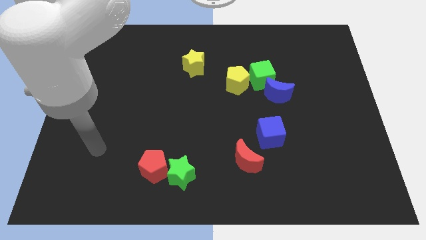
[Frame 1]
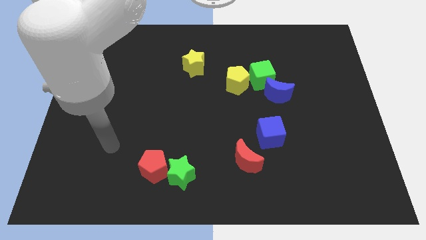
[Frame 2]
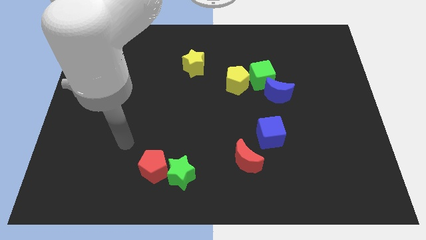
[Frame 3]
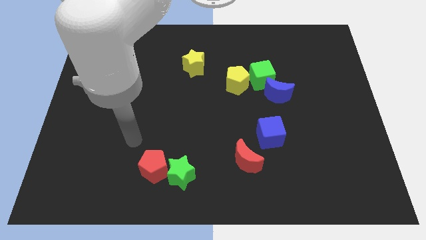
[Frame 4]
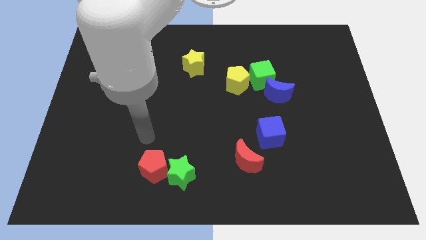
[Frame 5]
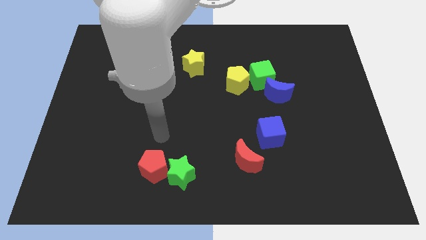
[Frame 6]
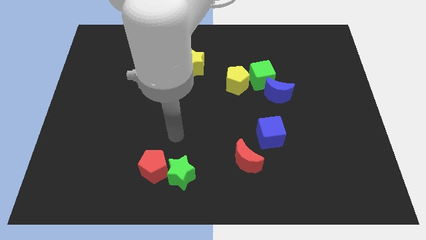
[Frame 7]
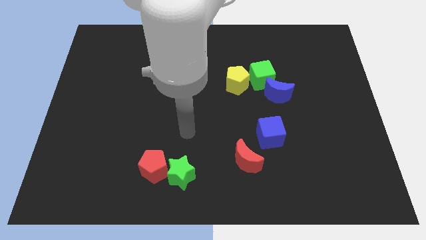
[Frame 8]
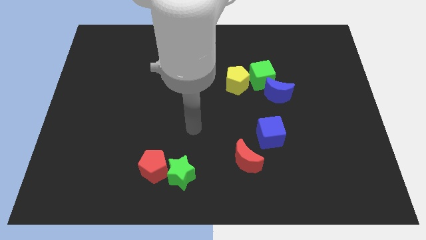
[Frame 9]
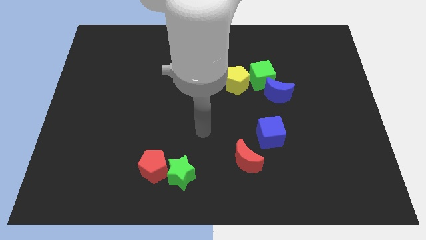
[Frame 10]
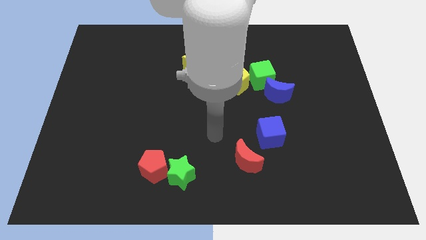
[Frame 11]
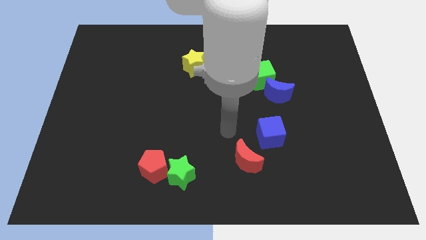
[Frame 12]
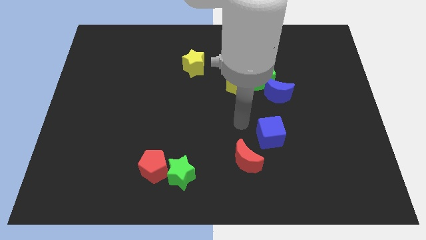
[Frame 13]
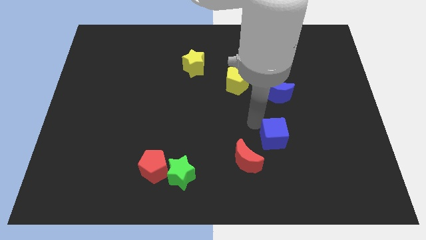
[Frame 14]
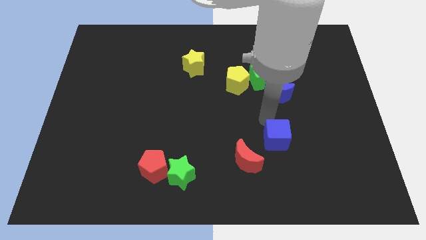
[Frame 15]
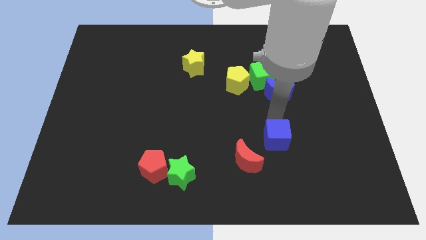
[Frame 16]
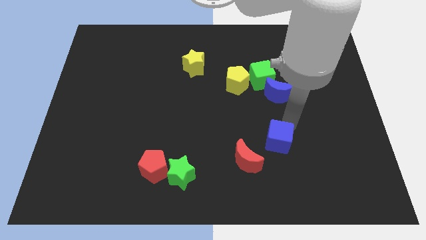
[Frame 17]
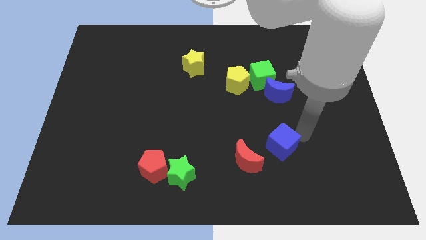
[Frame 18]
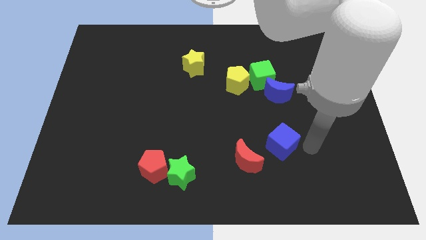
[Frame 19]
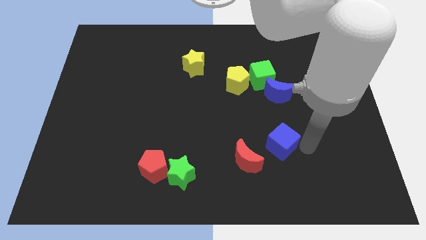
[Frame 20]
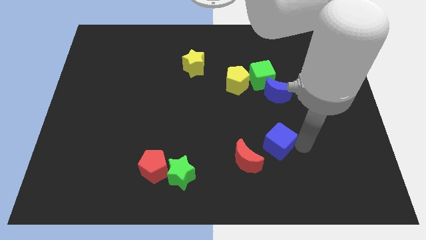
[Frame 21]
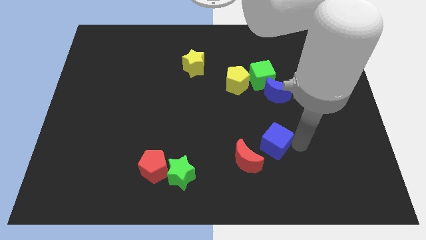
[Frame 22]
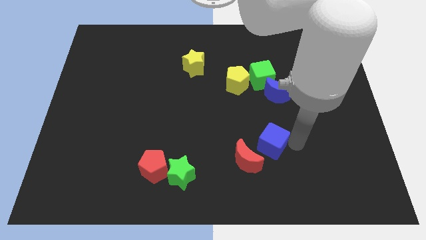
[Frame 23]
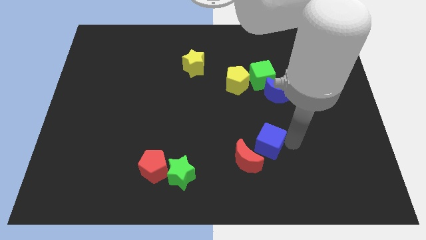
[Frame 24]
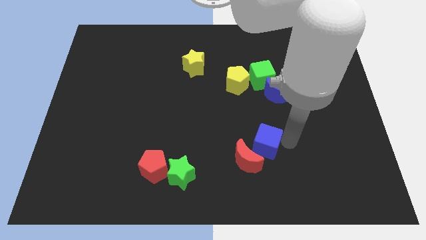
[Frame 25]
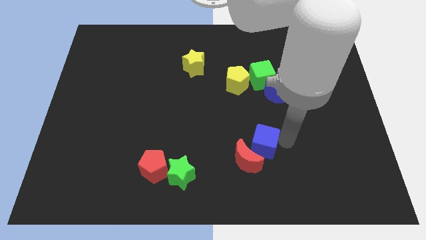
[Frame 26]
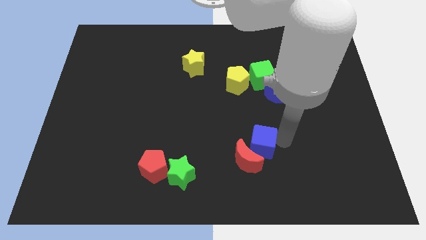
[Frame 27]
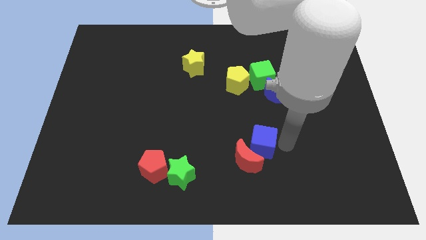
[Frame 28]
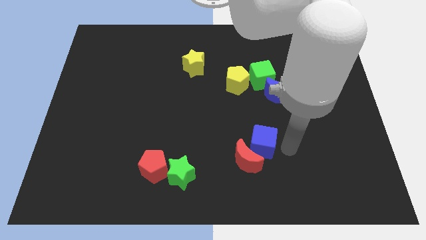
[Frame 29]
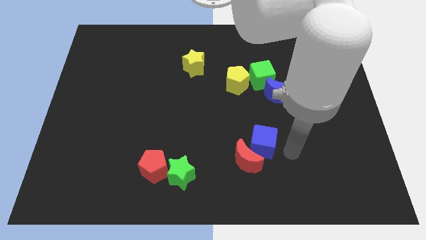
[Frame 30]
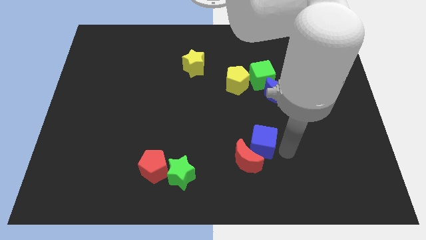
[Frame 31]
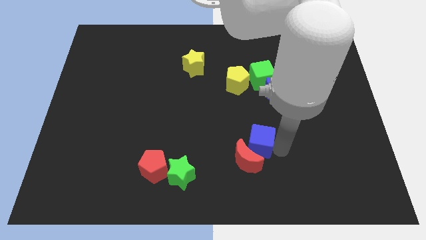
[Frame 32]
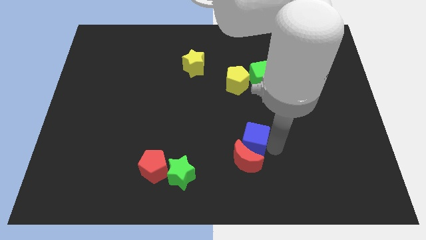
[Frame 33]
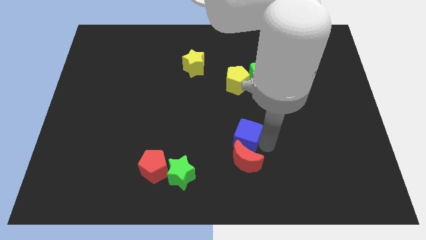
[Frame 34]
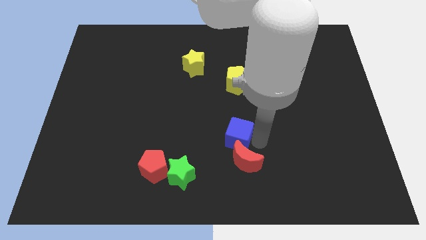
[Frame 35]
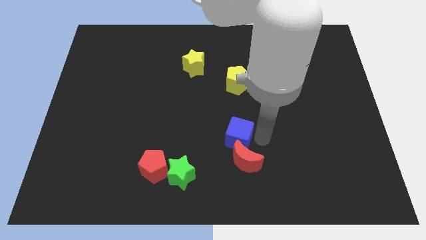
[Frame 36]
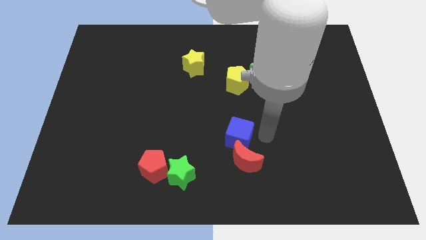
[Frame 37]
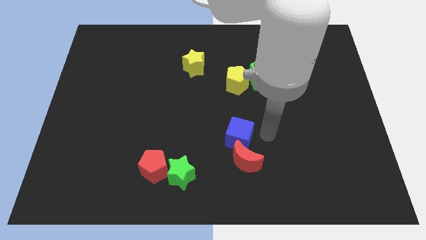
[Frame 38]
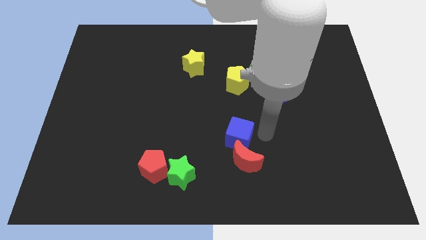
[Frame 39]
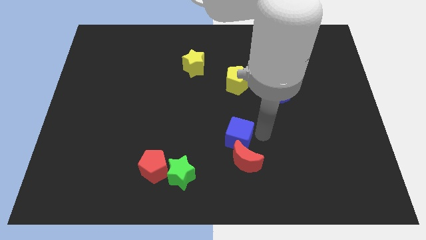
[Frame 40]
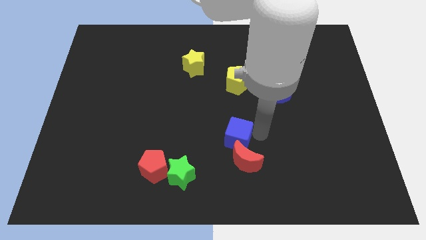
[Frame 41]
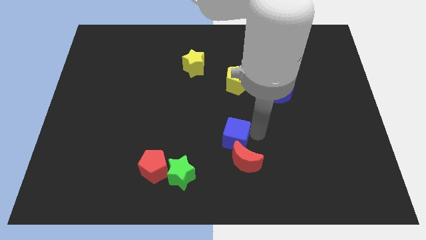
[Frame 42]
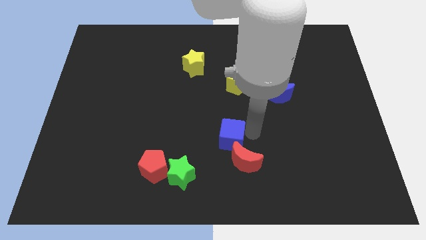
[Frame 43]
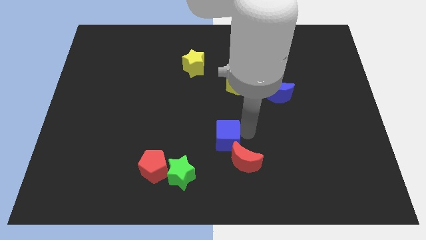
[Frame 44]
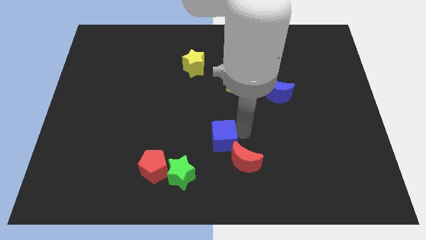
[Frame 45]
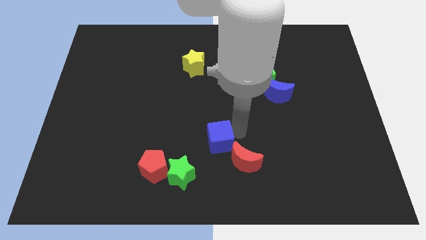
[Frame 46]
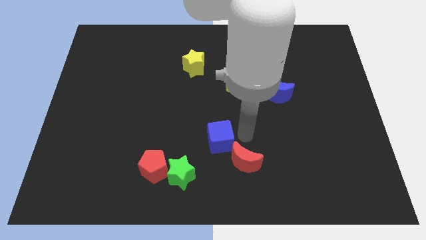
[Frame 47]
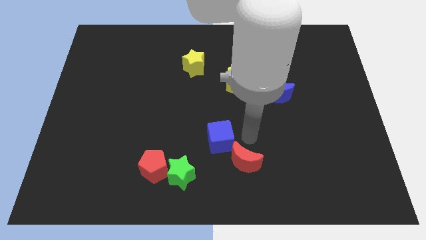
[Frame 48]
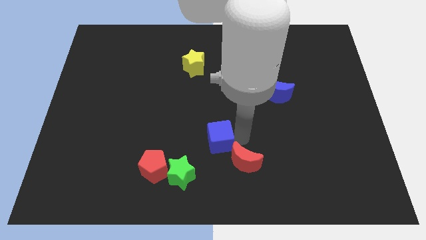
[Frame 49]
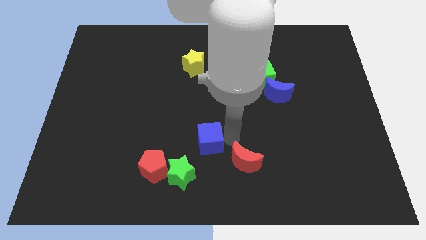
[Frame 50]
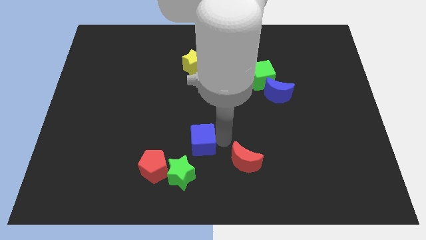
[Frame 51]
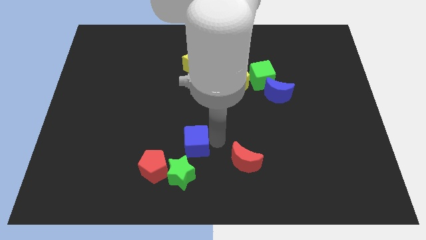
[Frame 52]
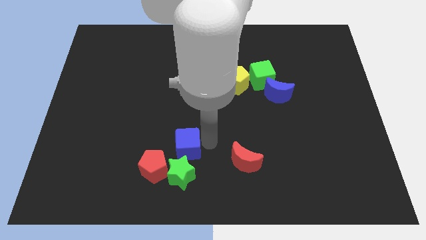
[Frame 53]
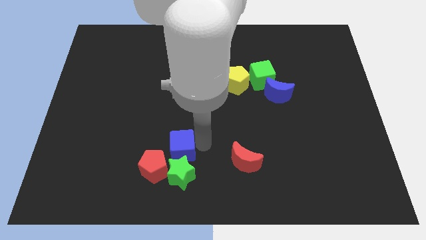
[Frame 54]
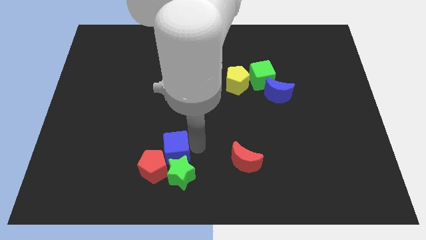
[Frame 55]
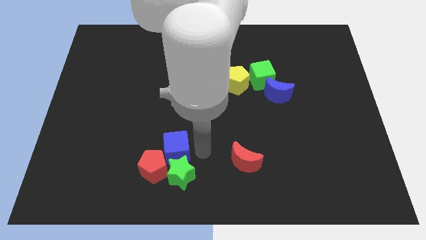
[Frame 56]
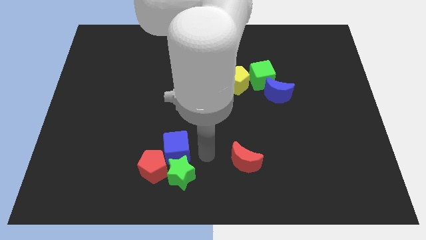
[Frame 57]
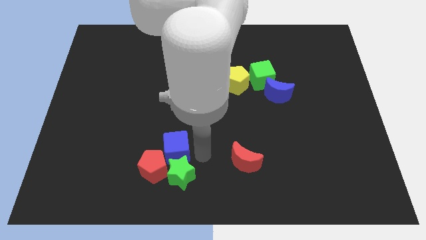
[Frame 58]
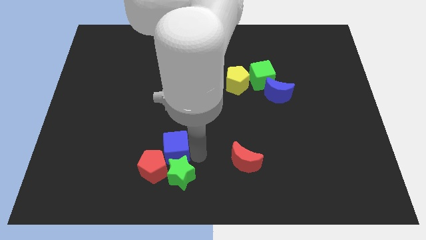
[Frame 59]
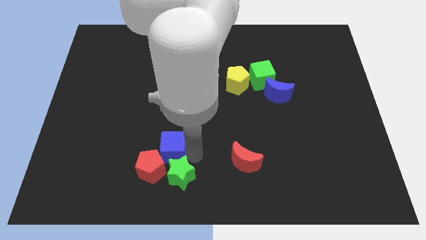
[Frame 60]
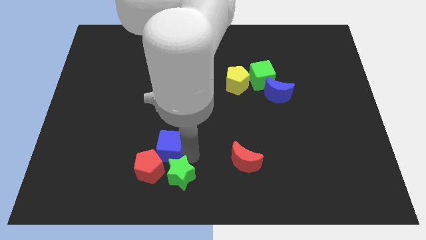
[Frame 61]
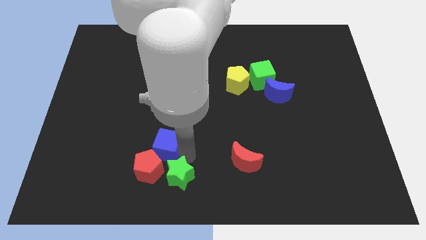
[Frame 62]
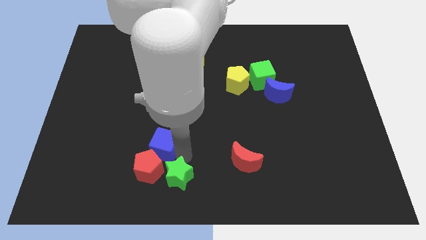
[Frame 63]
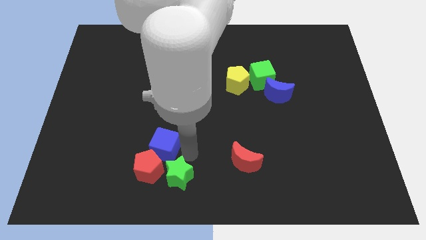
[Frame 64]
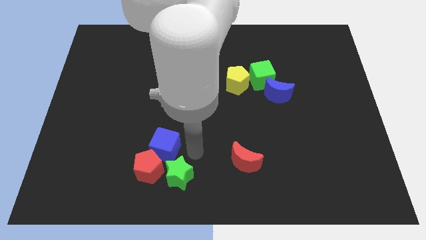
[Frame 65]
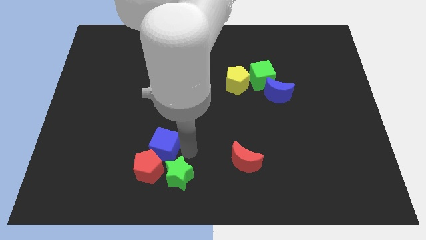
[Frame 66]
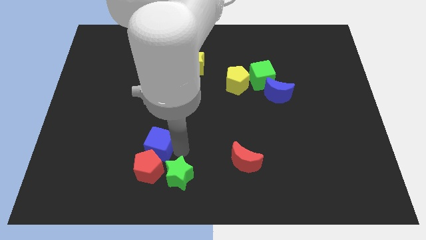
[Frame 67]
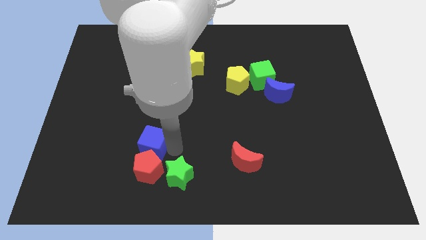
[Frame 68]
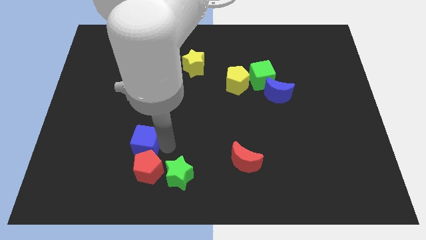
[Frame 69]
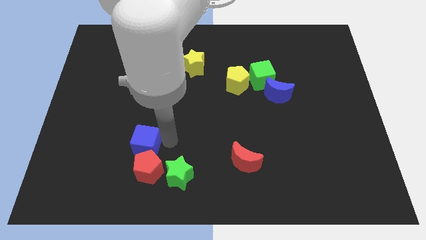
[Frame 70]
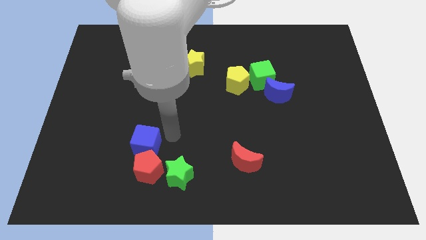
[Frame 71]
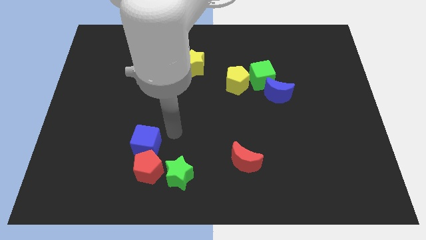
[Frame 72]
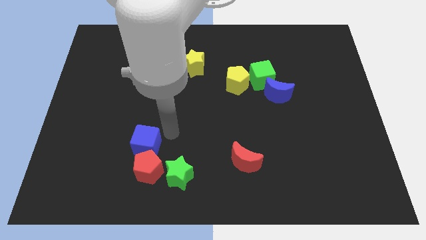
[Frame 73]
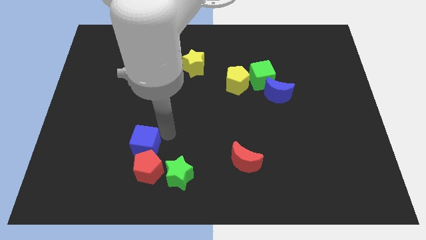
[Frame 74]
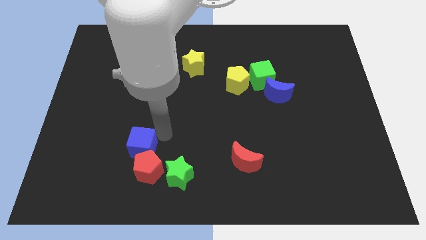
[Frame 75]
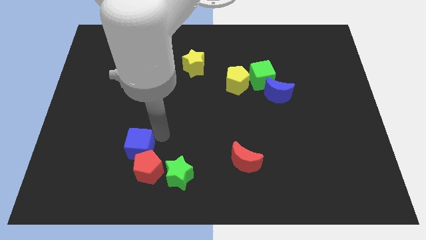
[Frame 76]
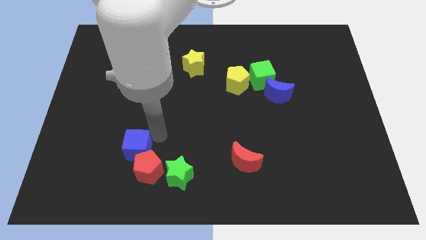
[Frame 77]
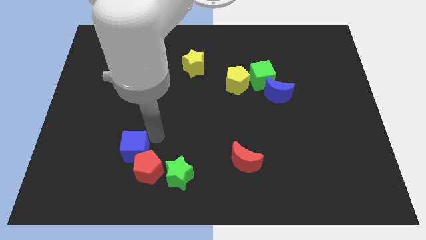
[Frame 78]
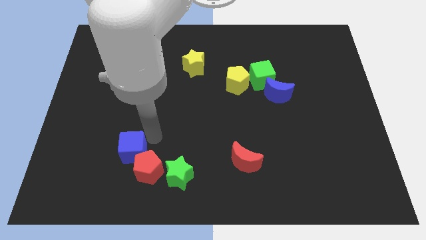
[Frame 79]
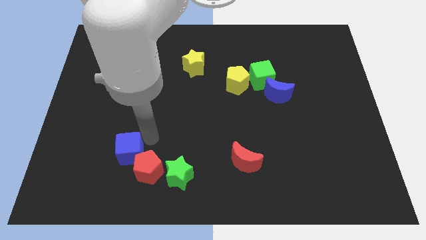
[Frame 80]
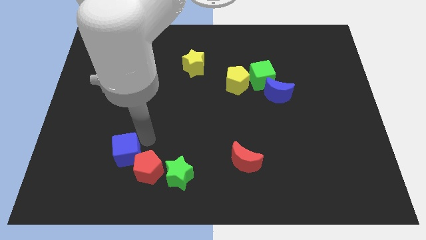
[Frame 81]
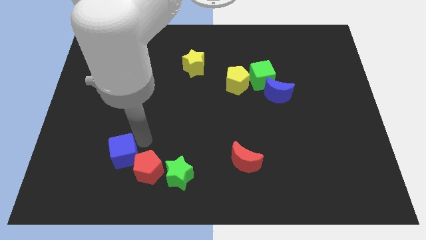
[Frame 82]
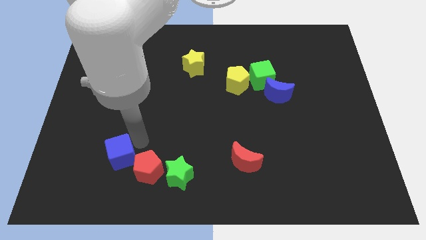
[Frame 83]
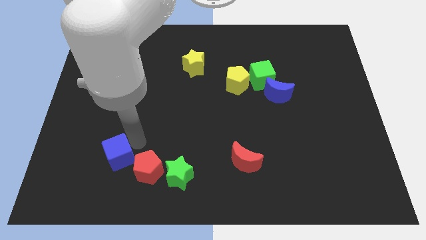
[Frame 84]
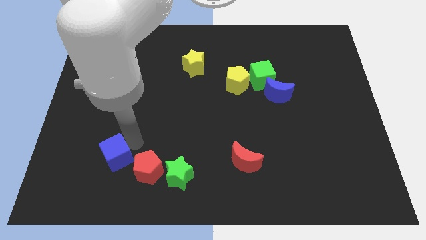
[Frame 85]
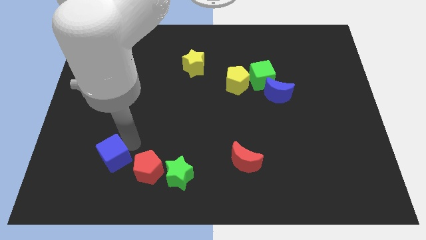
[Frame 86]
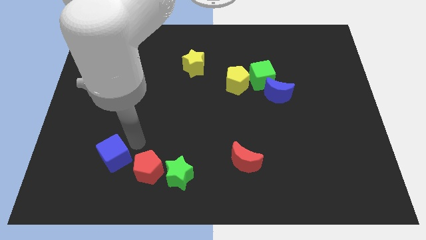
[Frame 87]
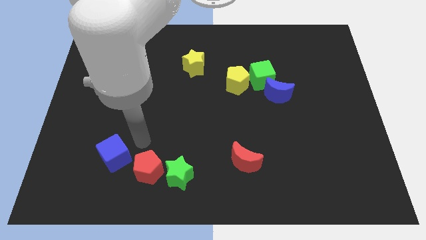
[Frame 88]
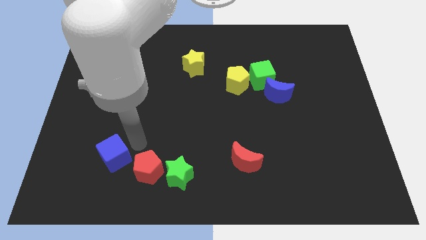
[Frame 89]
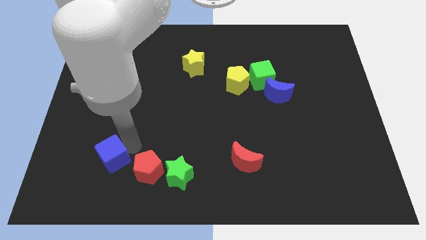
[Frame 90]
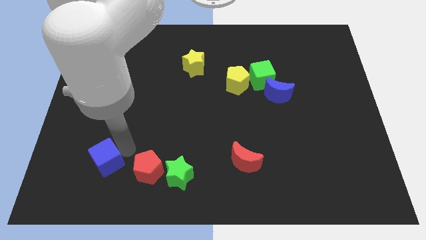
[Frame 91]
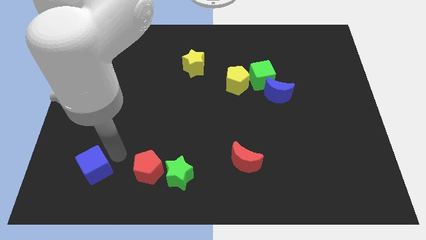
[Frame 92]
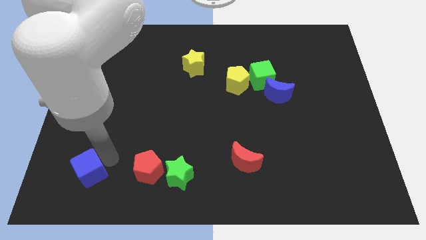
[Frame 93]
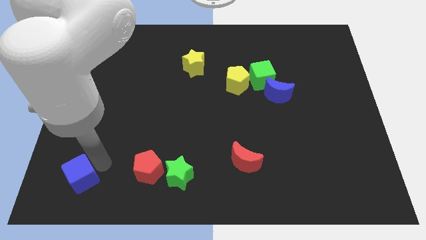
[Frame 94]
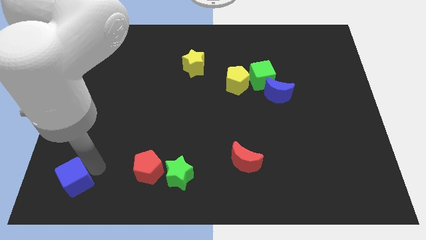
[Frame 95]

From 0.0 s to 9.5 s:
slide the blue cube to the bottom left corner
